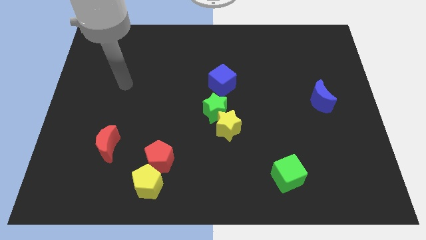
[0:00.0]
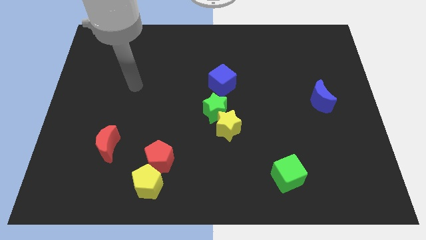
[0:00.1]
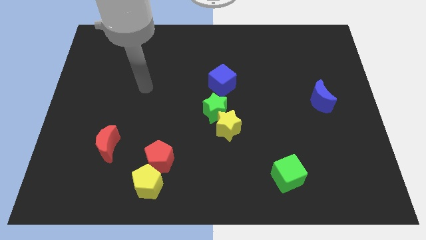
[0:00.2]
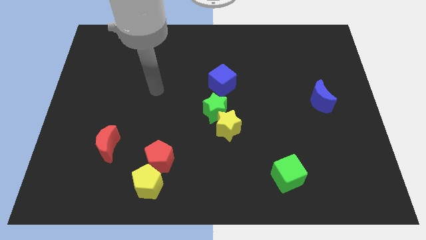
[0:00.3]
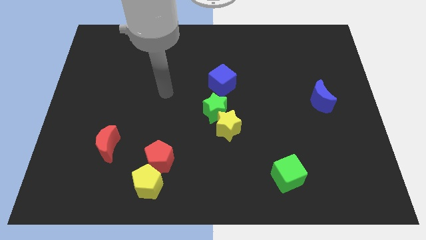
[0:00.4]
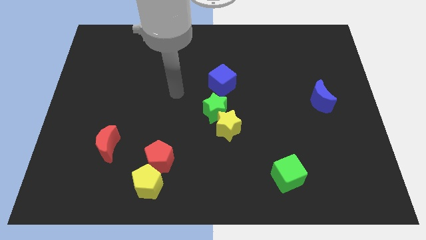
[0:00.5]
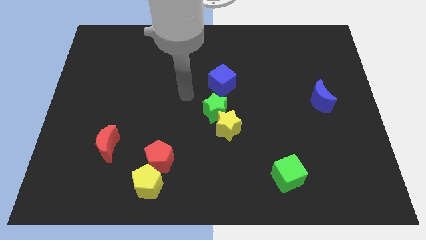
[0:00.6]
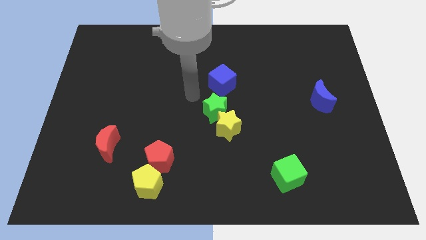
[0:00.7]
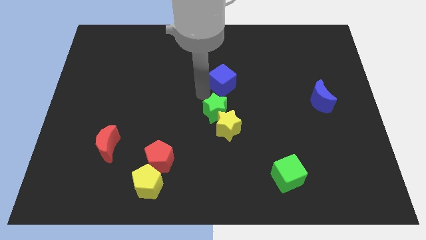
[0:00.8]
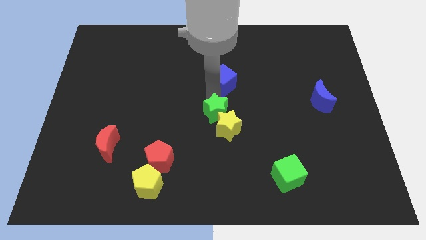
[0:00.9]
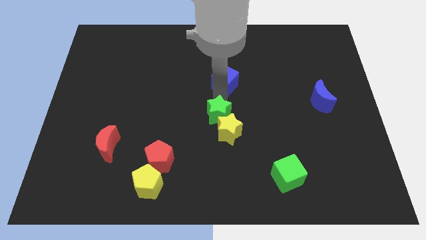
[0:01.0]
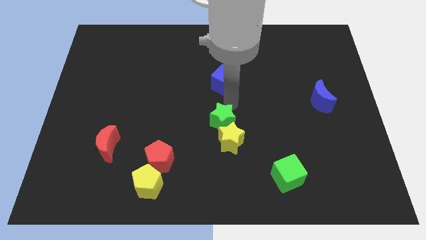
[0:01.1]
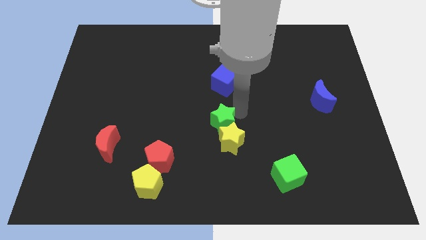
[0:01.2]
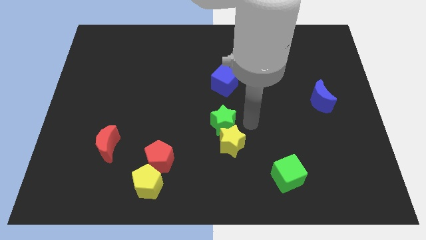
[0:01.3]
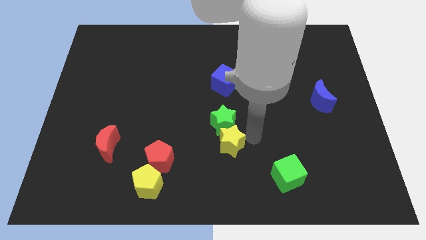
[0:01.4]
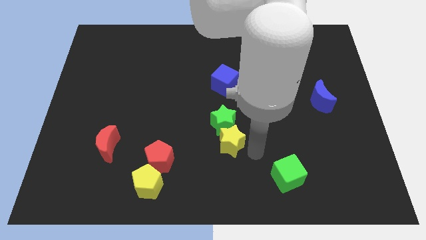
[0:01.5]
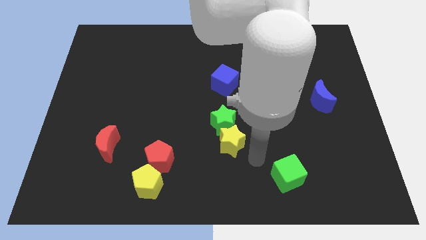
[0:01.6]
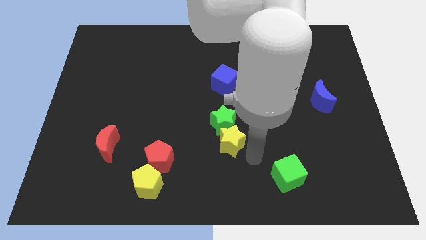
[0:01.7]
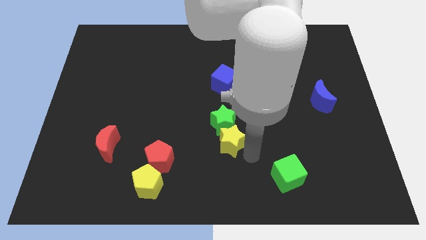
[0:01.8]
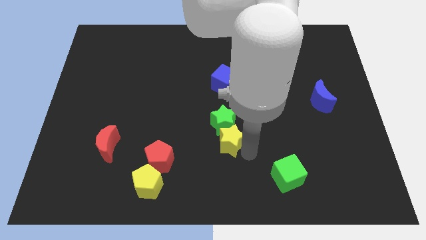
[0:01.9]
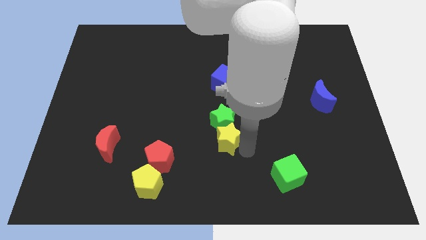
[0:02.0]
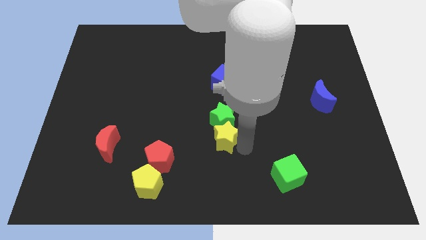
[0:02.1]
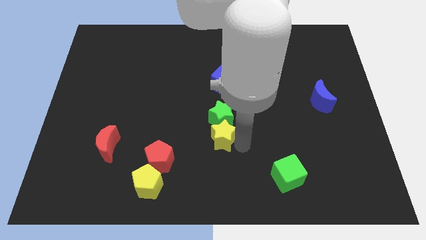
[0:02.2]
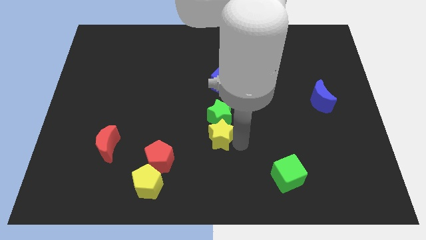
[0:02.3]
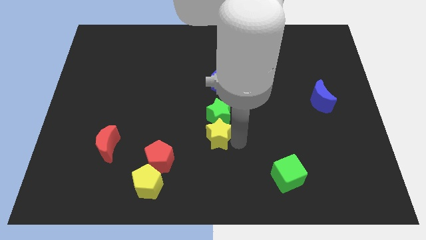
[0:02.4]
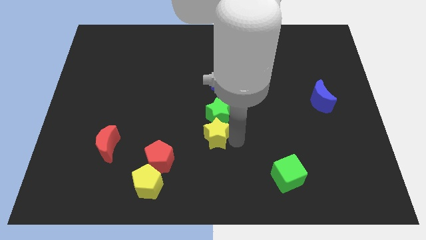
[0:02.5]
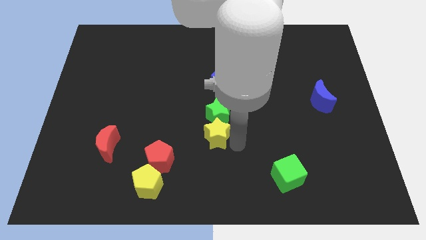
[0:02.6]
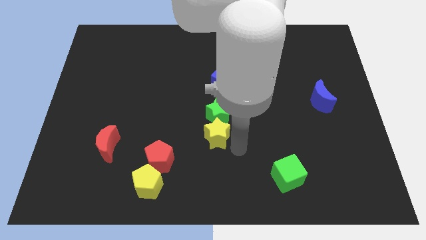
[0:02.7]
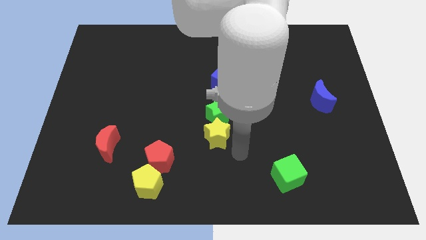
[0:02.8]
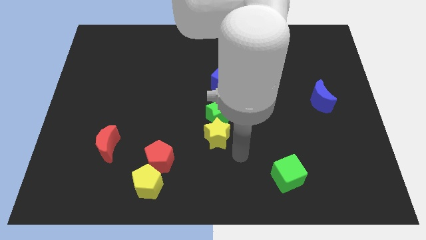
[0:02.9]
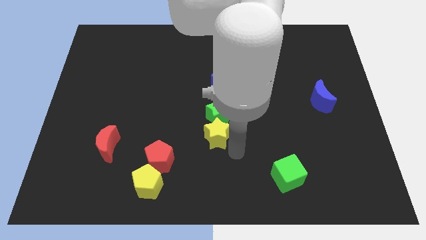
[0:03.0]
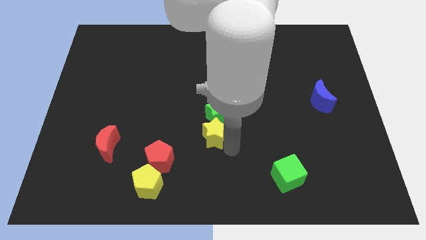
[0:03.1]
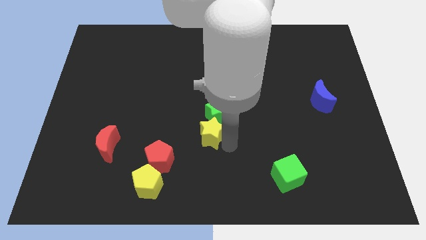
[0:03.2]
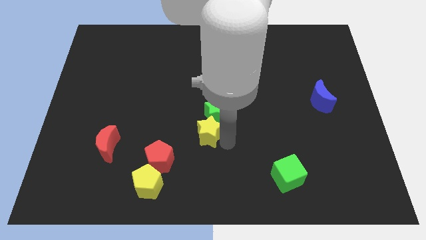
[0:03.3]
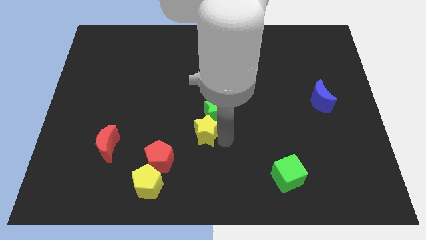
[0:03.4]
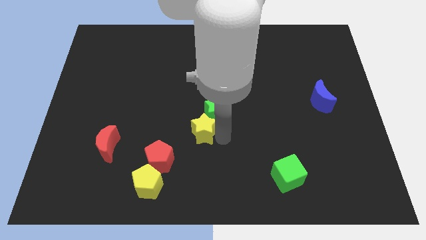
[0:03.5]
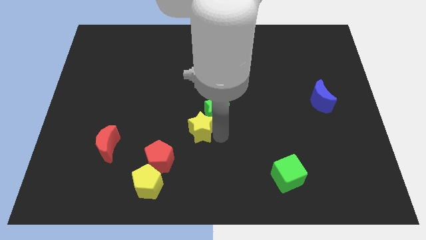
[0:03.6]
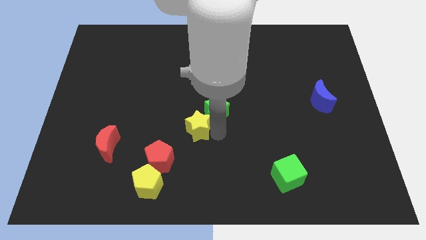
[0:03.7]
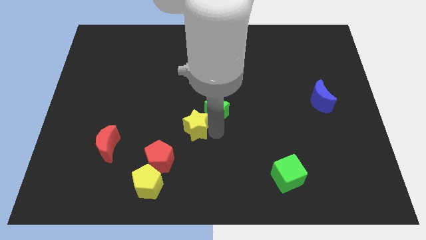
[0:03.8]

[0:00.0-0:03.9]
push the yellow star somewhat left

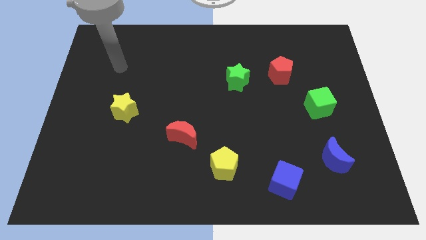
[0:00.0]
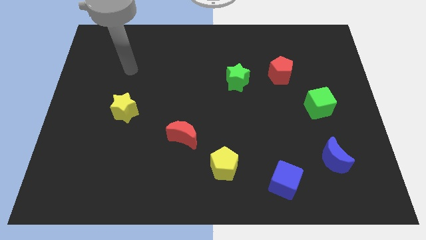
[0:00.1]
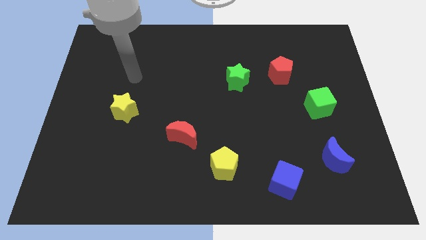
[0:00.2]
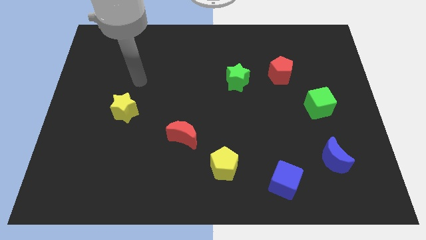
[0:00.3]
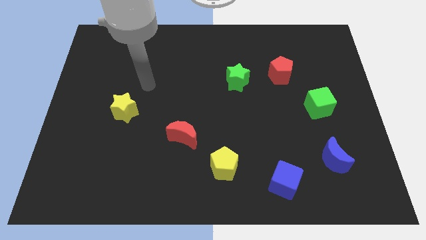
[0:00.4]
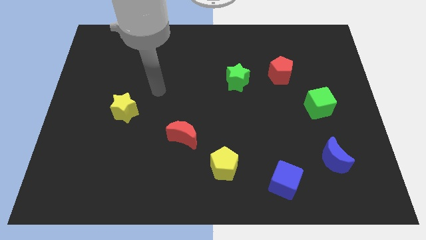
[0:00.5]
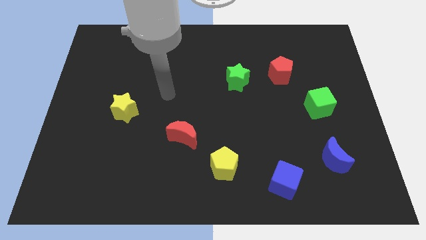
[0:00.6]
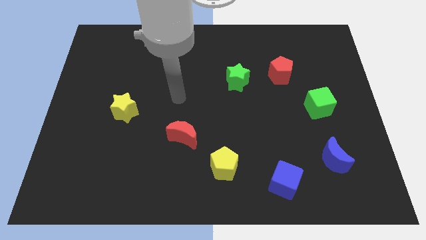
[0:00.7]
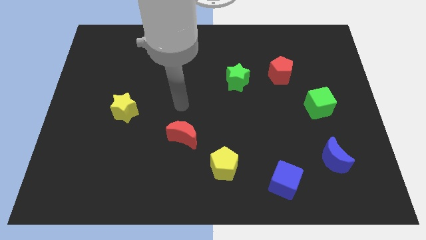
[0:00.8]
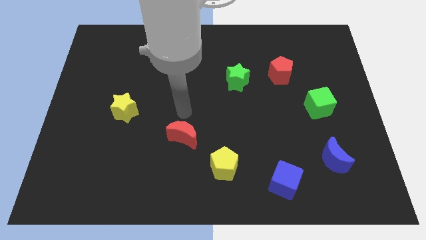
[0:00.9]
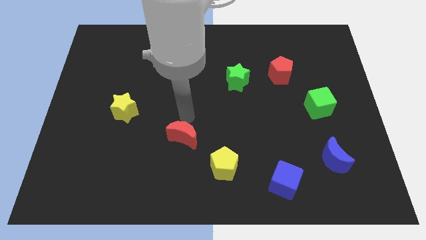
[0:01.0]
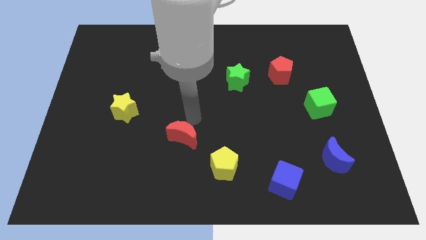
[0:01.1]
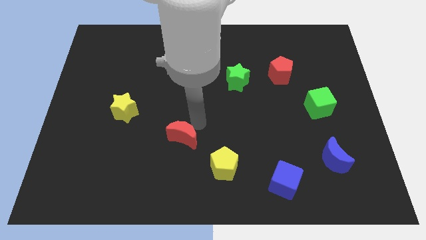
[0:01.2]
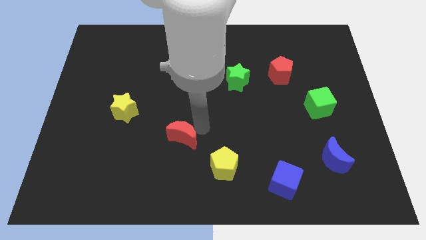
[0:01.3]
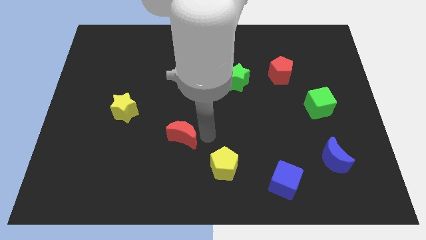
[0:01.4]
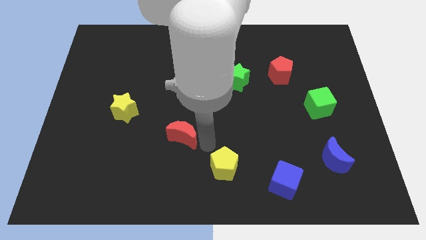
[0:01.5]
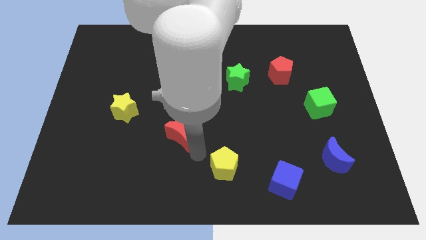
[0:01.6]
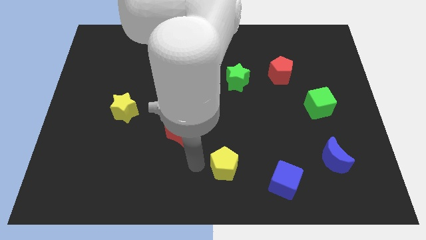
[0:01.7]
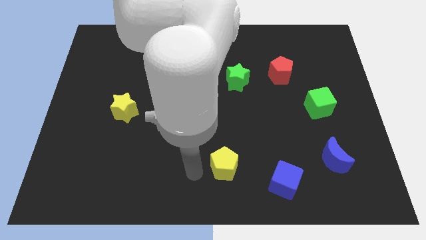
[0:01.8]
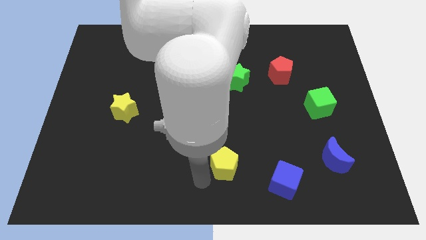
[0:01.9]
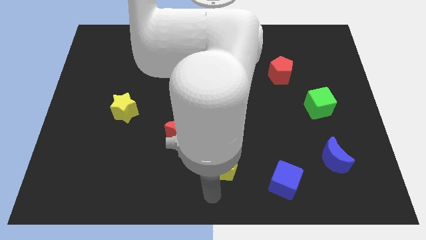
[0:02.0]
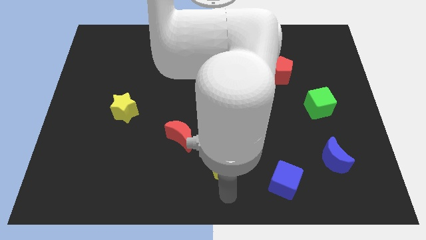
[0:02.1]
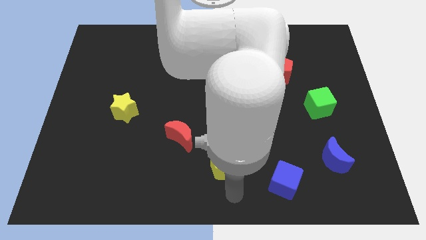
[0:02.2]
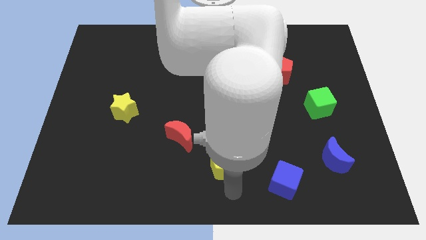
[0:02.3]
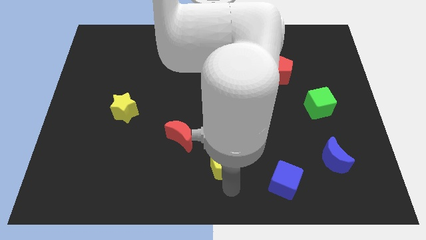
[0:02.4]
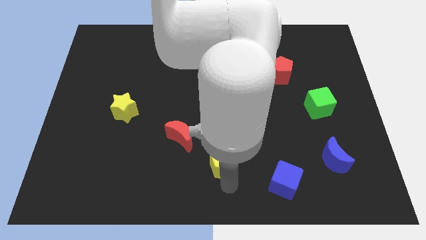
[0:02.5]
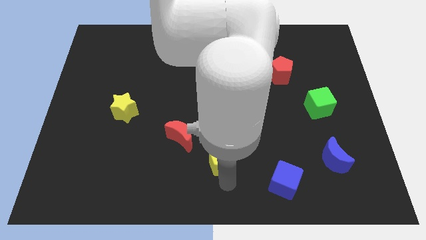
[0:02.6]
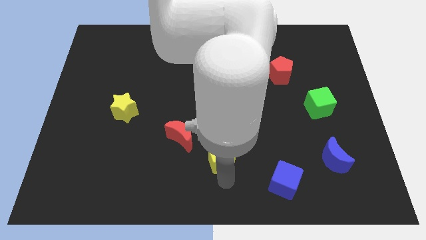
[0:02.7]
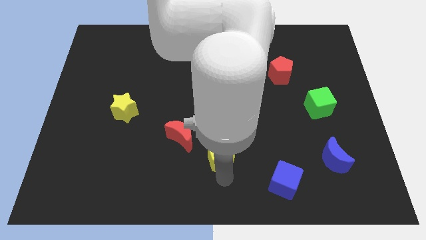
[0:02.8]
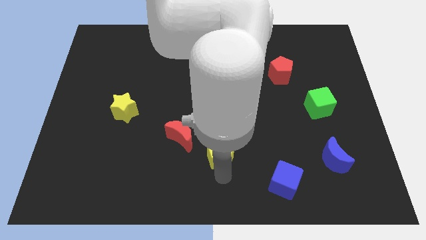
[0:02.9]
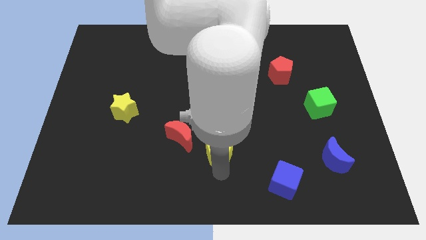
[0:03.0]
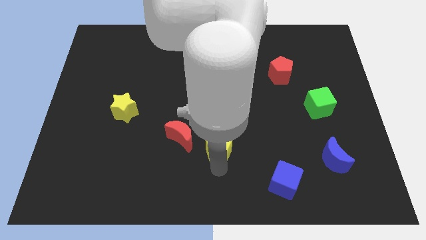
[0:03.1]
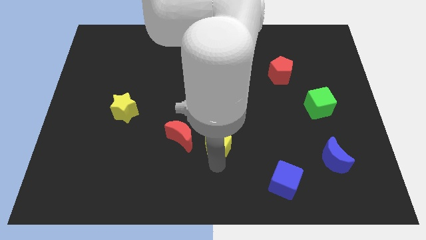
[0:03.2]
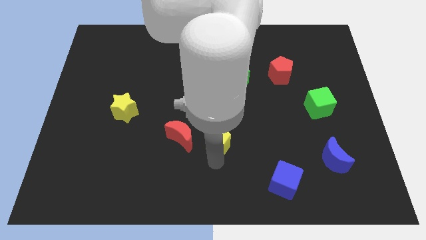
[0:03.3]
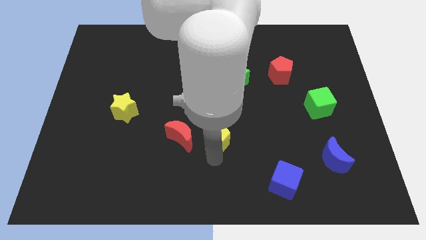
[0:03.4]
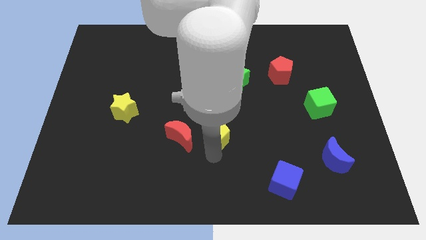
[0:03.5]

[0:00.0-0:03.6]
slide the yellow pentagon slightly upwards

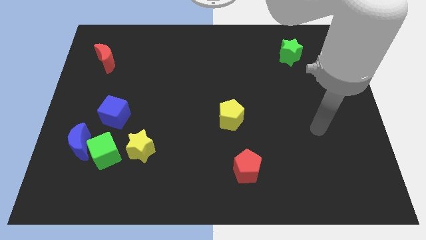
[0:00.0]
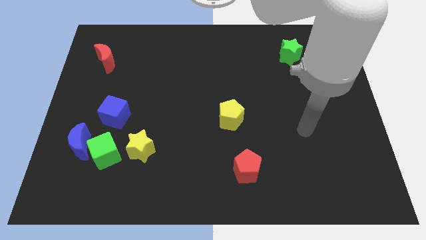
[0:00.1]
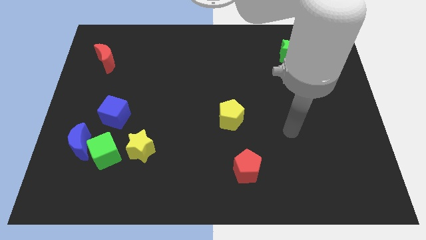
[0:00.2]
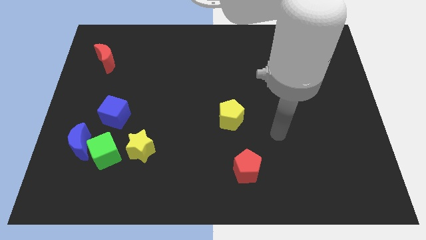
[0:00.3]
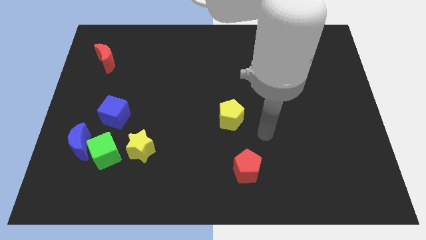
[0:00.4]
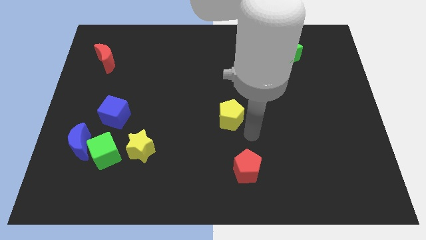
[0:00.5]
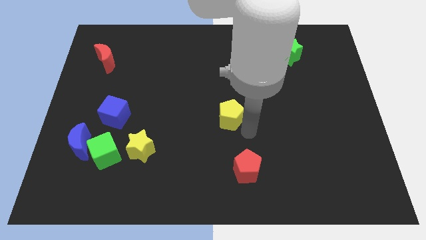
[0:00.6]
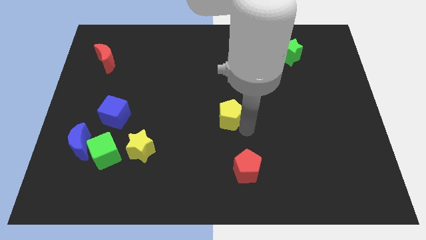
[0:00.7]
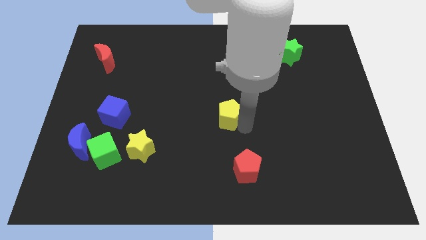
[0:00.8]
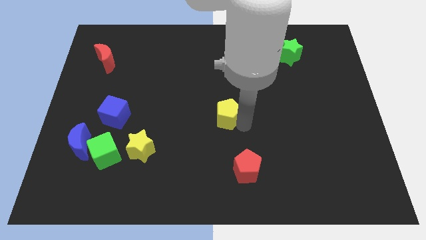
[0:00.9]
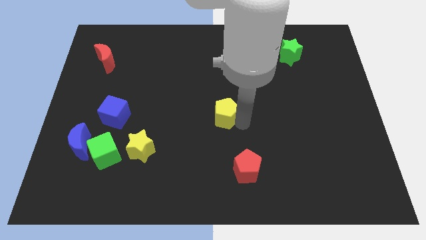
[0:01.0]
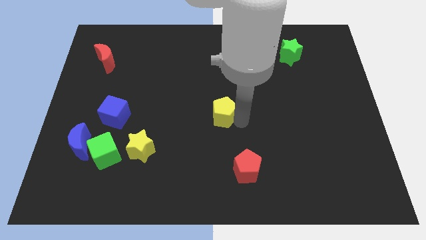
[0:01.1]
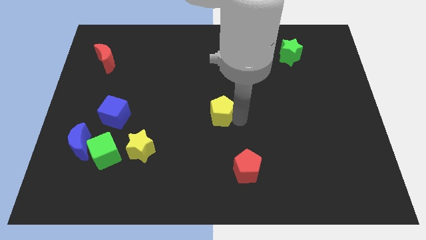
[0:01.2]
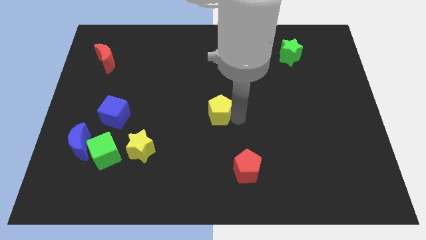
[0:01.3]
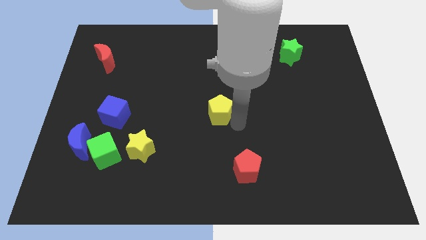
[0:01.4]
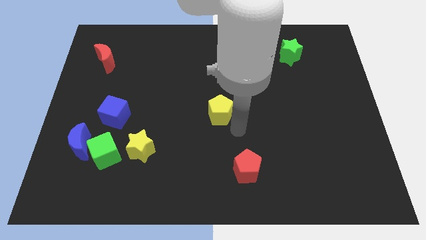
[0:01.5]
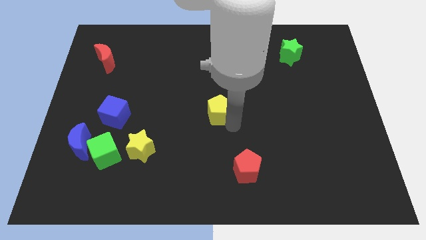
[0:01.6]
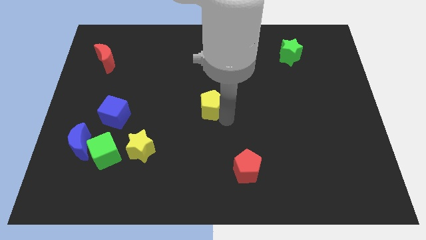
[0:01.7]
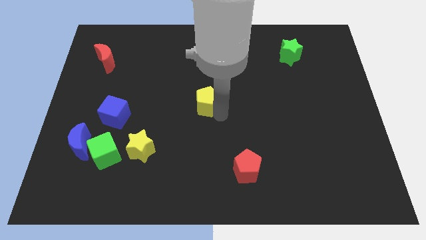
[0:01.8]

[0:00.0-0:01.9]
slightly slide the yellow pentagon upwards and then left
